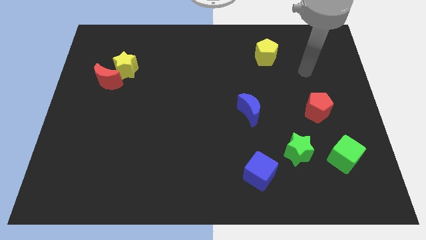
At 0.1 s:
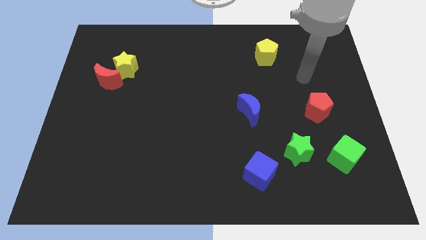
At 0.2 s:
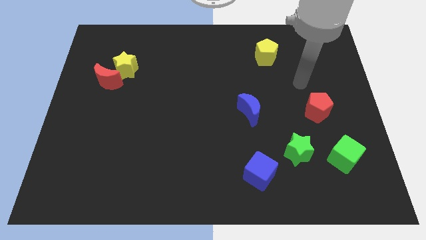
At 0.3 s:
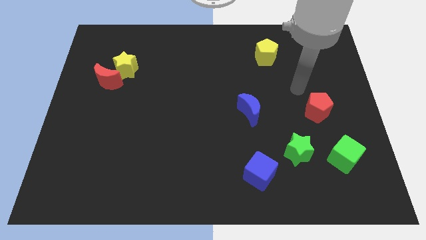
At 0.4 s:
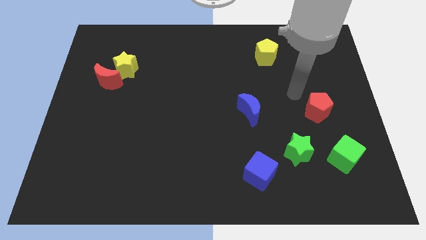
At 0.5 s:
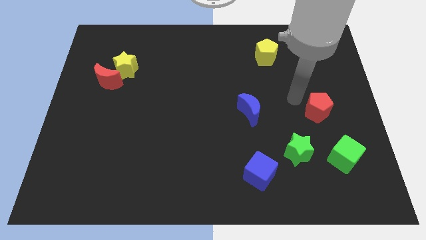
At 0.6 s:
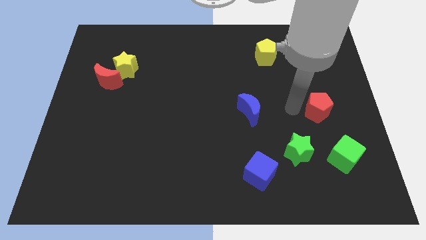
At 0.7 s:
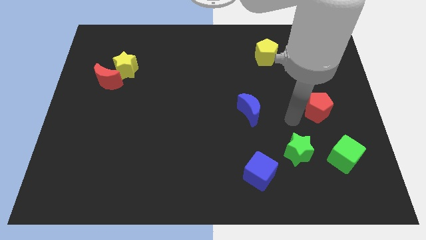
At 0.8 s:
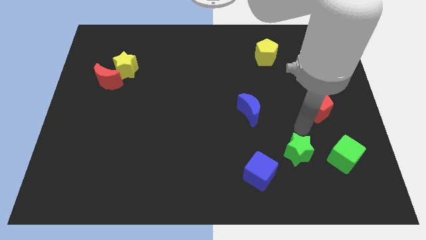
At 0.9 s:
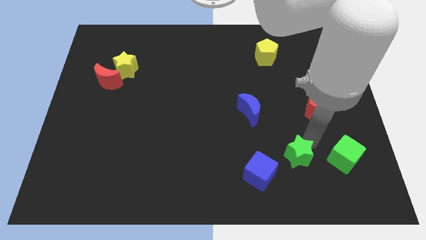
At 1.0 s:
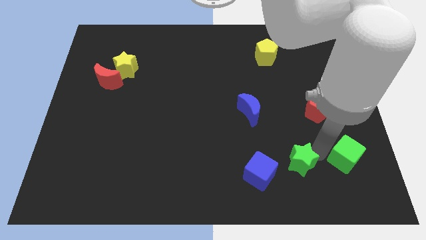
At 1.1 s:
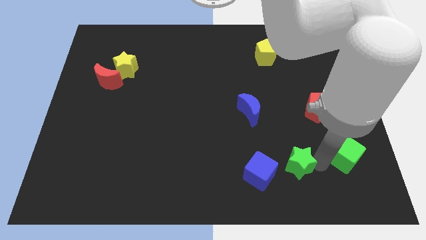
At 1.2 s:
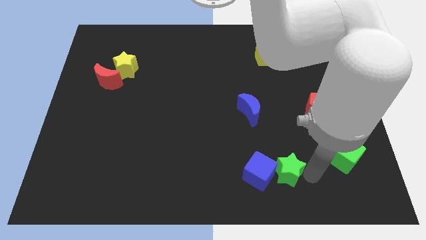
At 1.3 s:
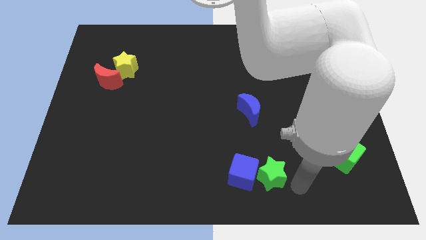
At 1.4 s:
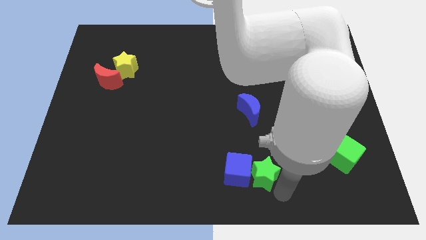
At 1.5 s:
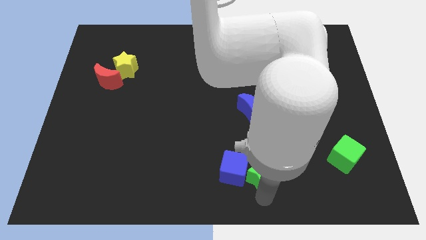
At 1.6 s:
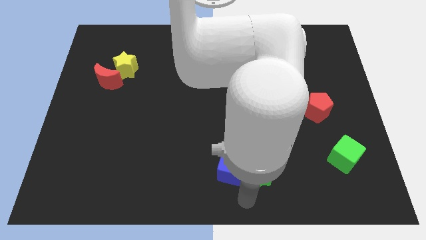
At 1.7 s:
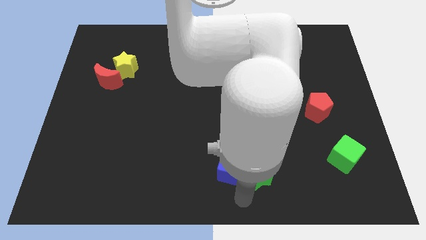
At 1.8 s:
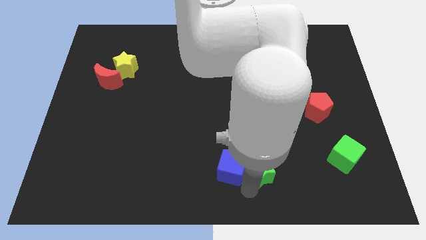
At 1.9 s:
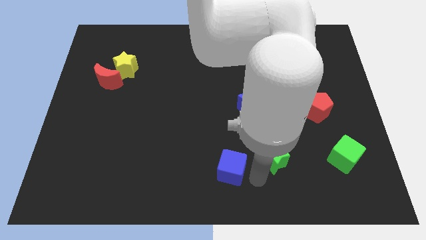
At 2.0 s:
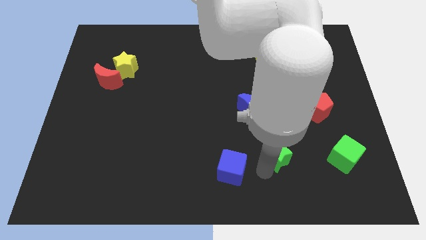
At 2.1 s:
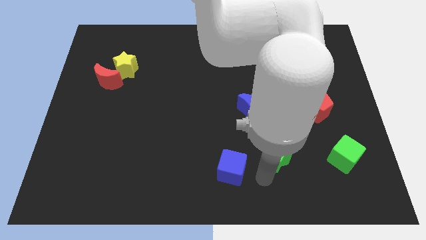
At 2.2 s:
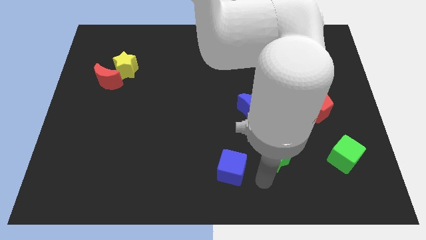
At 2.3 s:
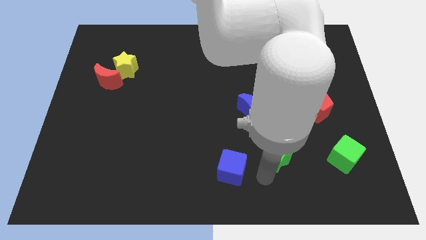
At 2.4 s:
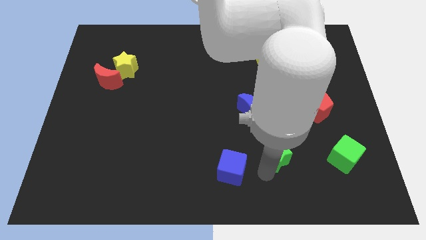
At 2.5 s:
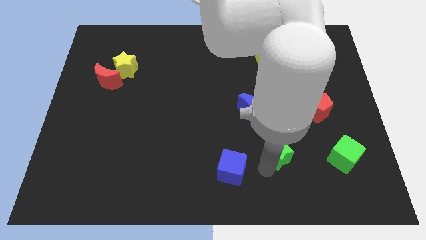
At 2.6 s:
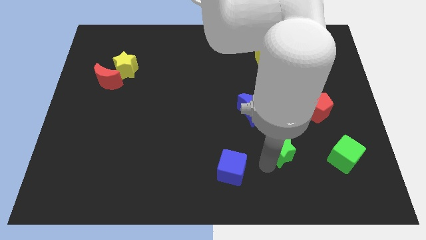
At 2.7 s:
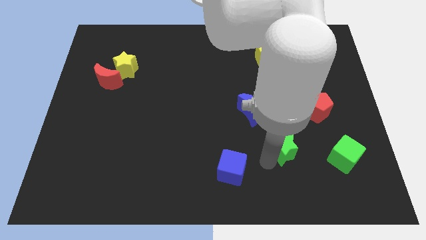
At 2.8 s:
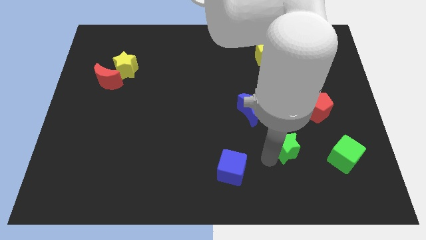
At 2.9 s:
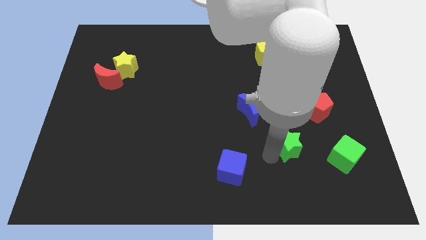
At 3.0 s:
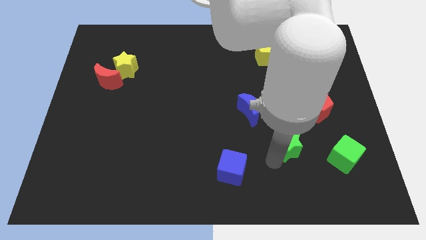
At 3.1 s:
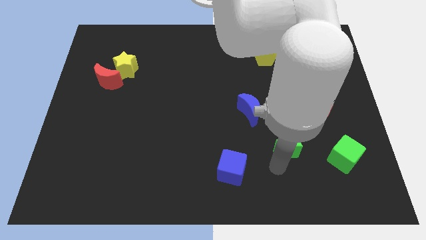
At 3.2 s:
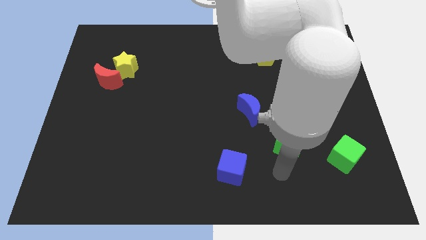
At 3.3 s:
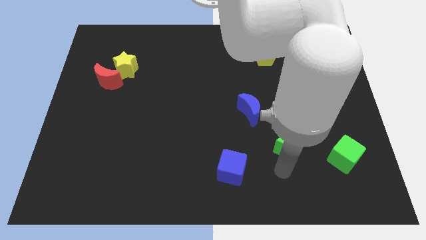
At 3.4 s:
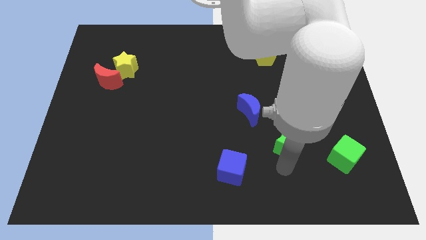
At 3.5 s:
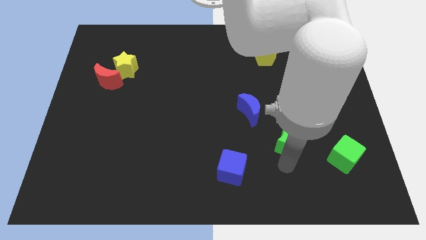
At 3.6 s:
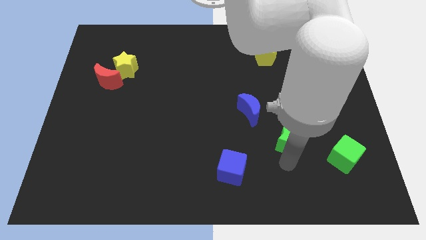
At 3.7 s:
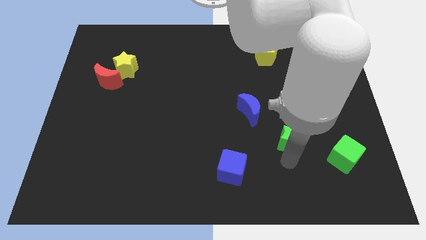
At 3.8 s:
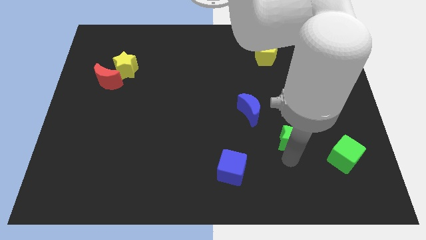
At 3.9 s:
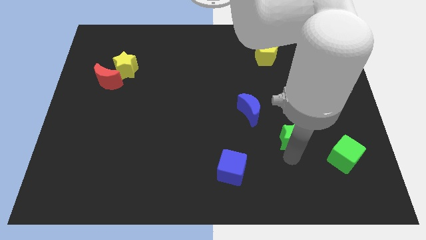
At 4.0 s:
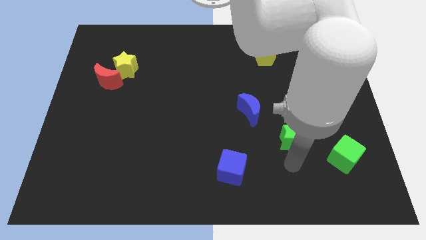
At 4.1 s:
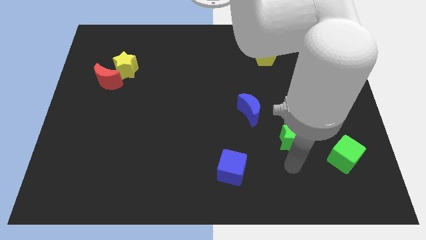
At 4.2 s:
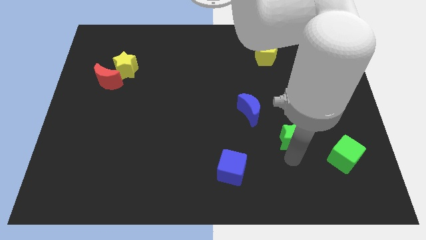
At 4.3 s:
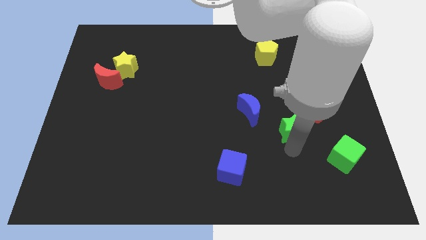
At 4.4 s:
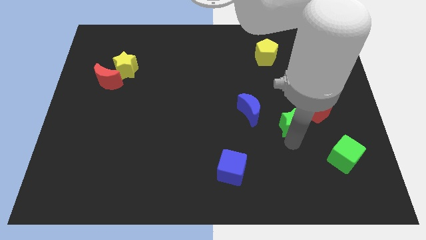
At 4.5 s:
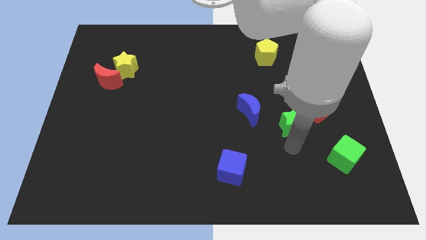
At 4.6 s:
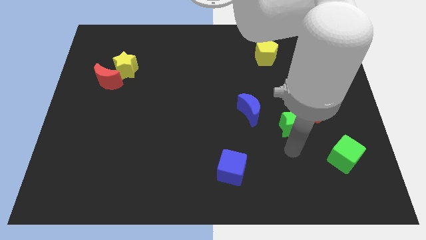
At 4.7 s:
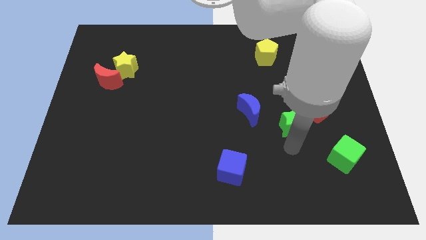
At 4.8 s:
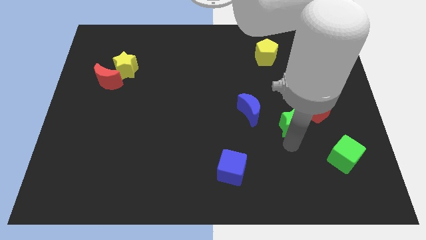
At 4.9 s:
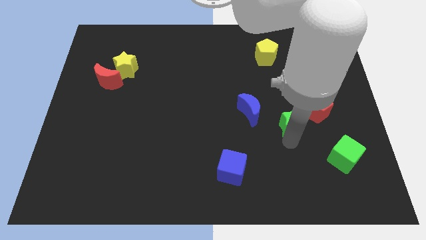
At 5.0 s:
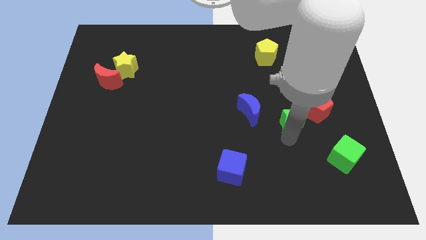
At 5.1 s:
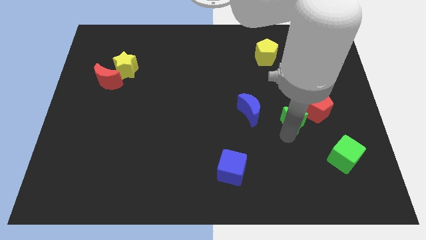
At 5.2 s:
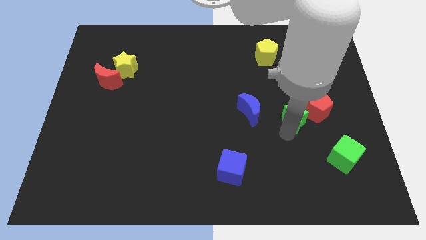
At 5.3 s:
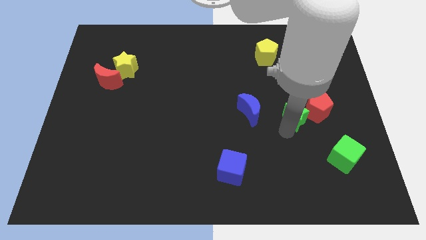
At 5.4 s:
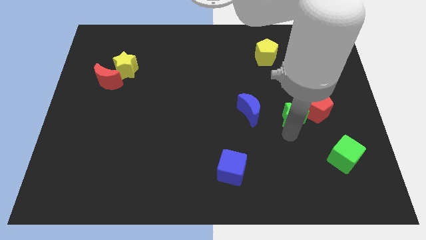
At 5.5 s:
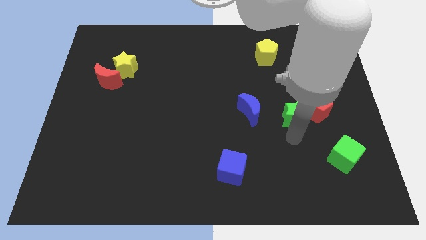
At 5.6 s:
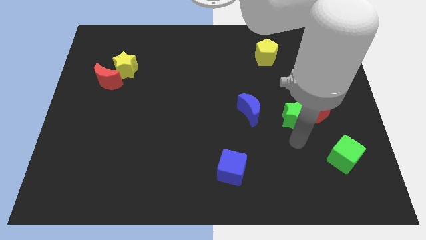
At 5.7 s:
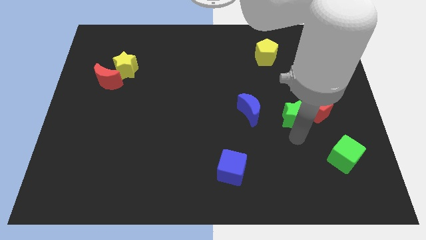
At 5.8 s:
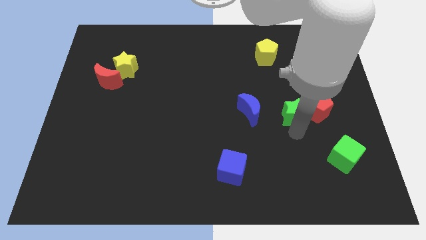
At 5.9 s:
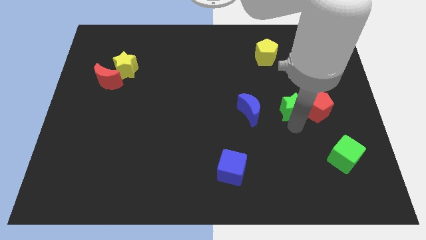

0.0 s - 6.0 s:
move the green star to the top left side of the red pentagon

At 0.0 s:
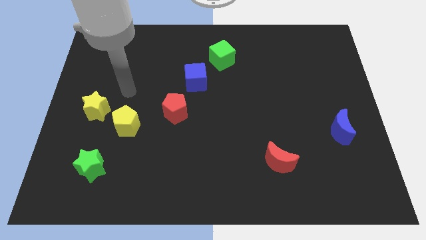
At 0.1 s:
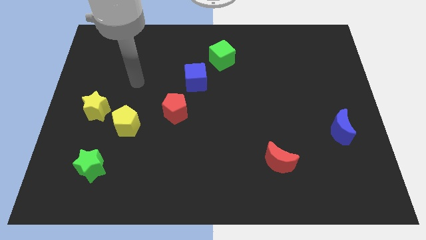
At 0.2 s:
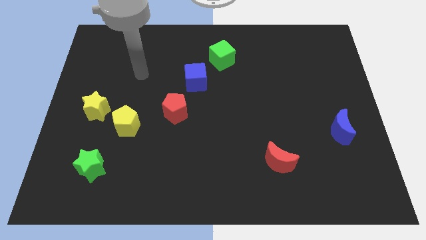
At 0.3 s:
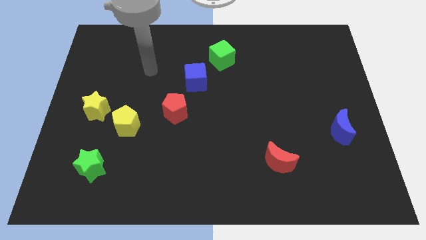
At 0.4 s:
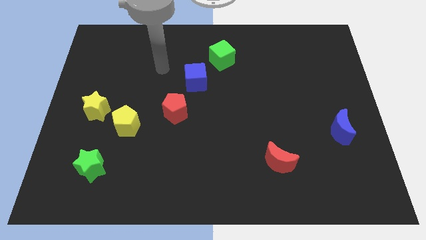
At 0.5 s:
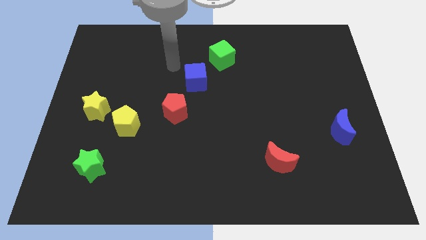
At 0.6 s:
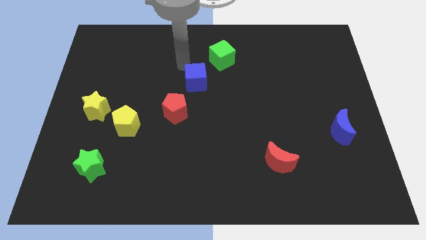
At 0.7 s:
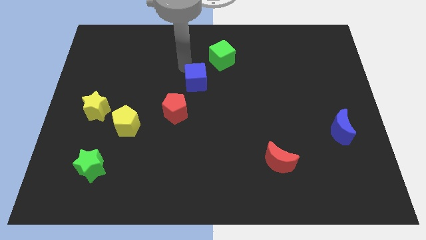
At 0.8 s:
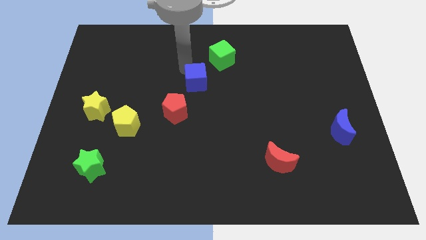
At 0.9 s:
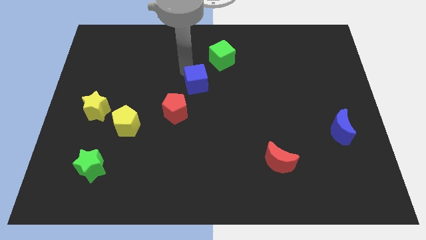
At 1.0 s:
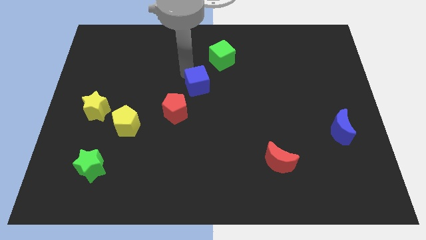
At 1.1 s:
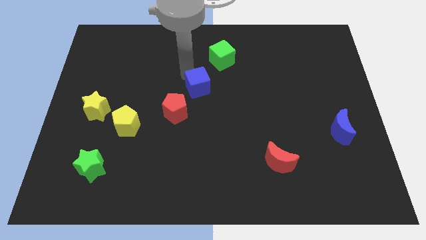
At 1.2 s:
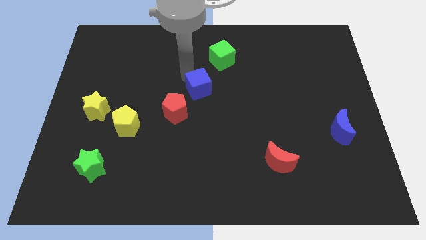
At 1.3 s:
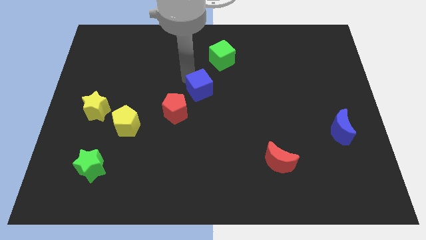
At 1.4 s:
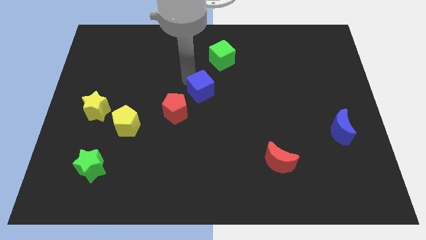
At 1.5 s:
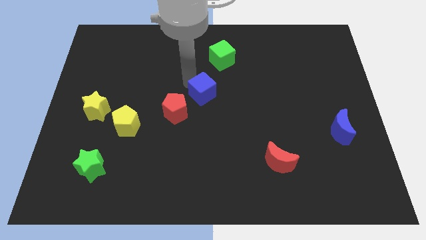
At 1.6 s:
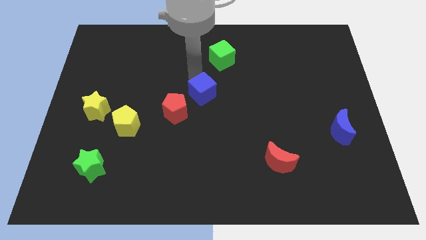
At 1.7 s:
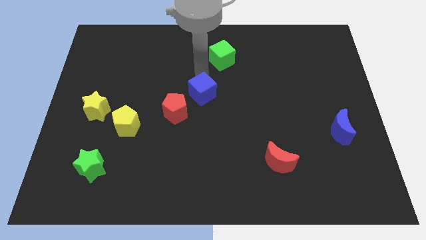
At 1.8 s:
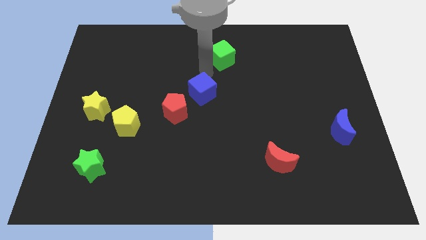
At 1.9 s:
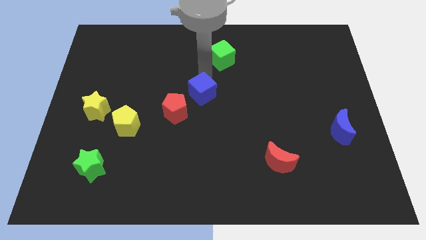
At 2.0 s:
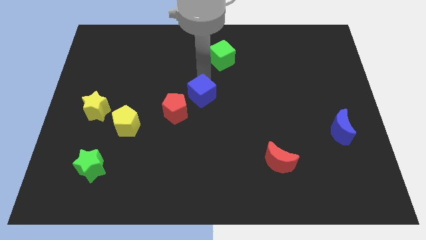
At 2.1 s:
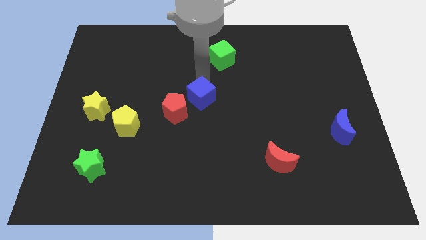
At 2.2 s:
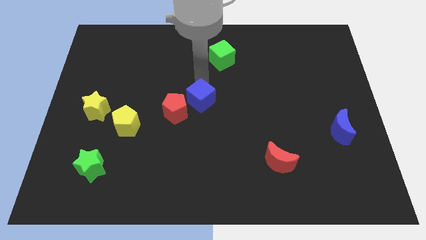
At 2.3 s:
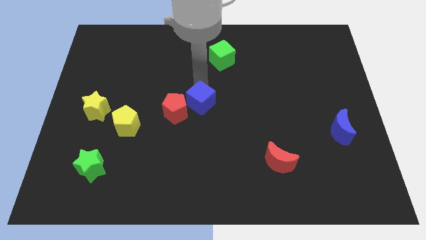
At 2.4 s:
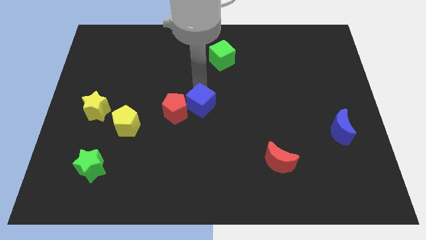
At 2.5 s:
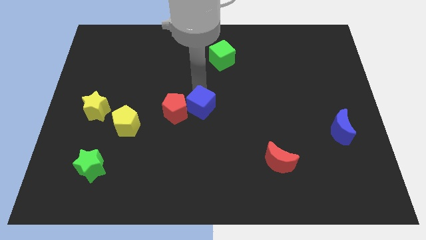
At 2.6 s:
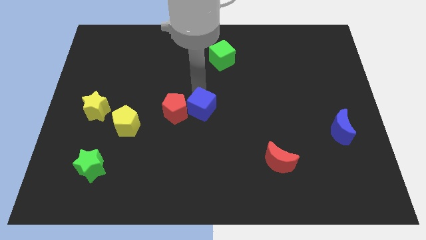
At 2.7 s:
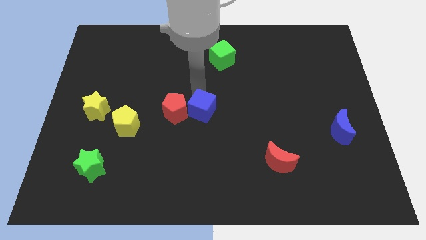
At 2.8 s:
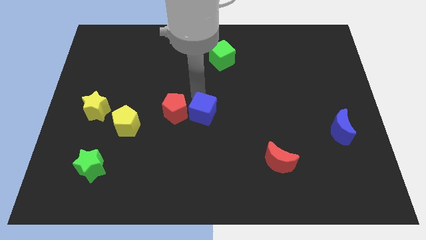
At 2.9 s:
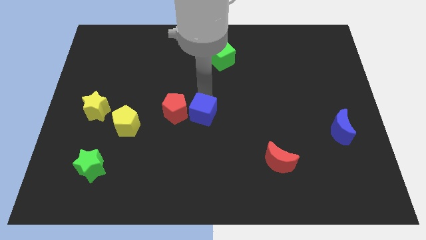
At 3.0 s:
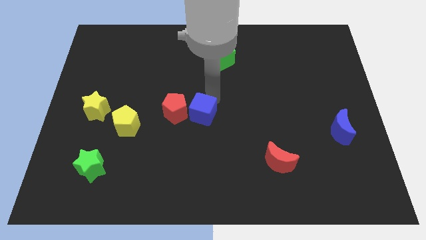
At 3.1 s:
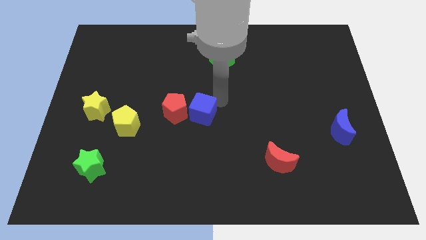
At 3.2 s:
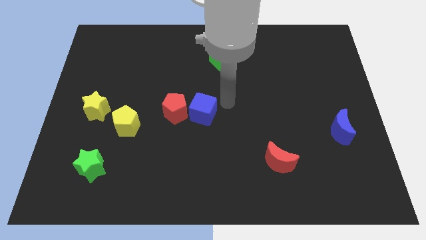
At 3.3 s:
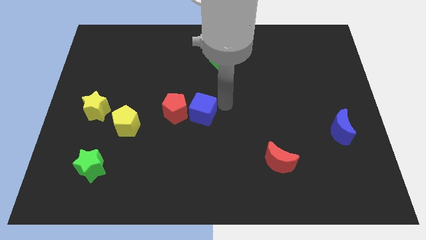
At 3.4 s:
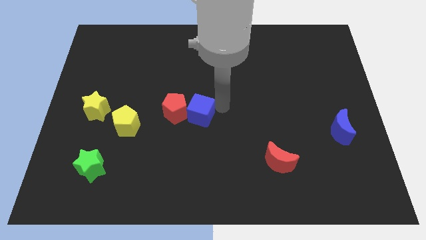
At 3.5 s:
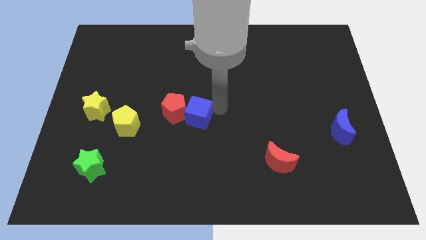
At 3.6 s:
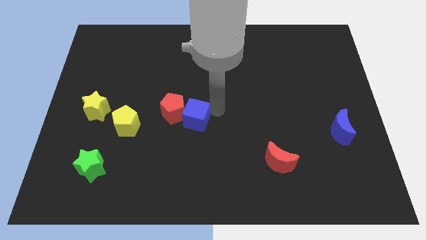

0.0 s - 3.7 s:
slide the blue cube to the right of the yellow pentagon
